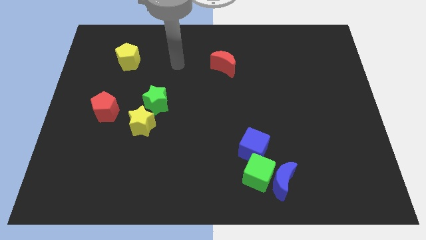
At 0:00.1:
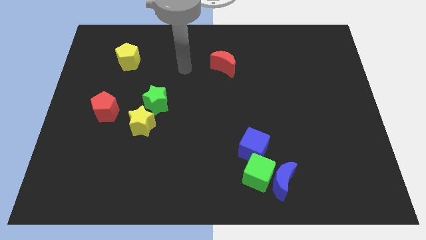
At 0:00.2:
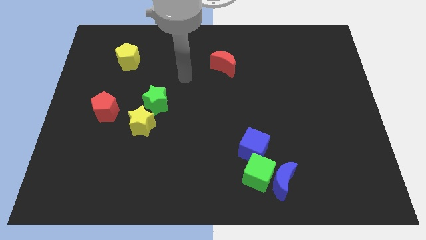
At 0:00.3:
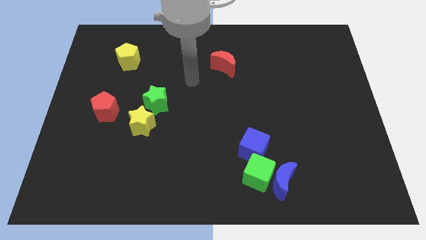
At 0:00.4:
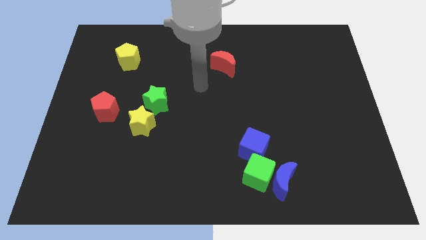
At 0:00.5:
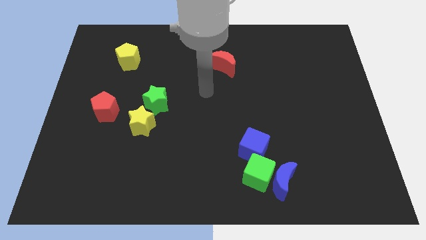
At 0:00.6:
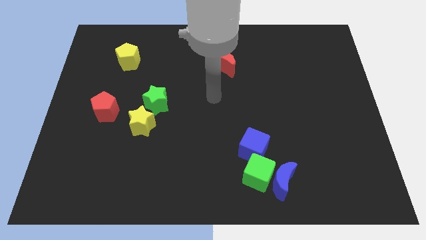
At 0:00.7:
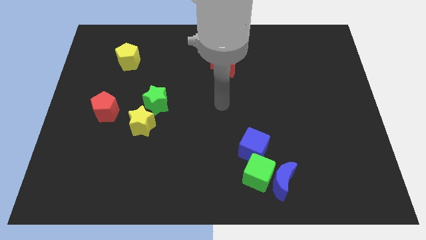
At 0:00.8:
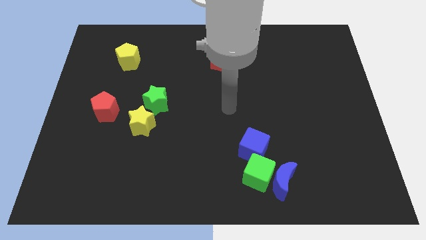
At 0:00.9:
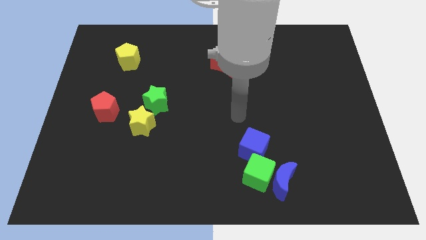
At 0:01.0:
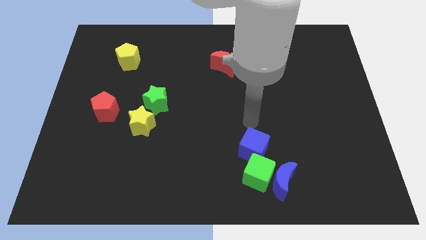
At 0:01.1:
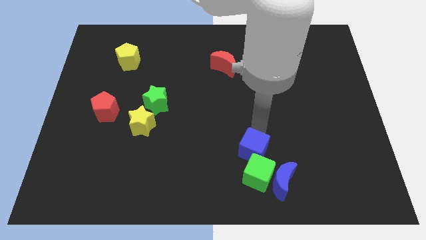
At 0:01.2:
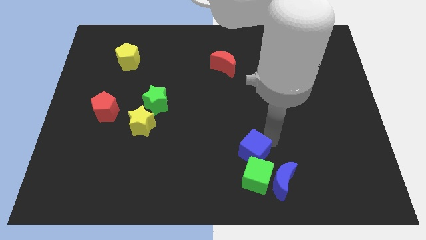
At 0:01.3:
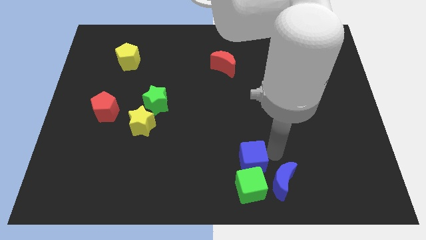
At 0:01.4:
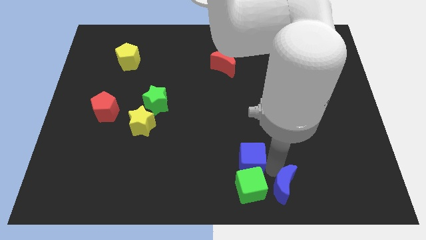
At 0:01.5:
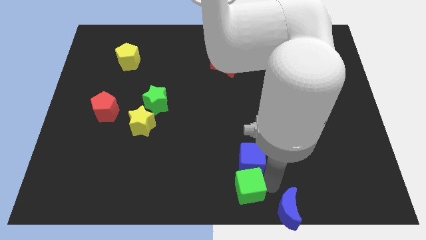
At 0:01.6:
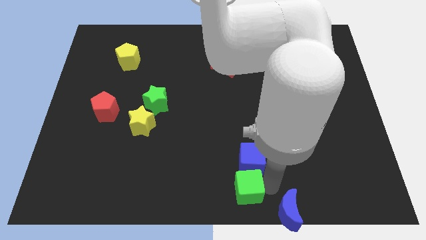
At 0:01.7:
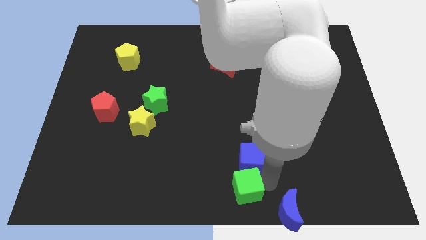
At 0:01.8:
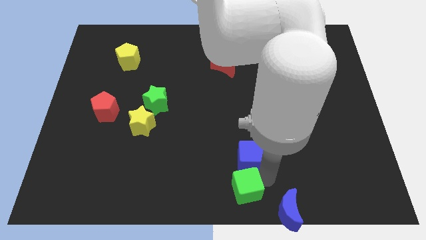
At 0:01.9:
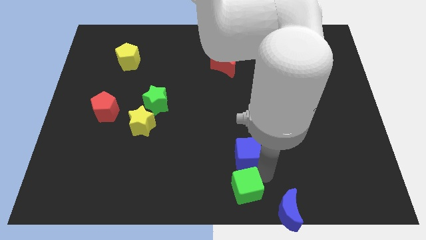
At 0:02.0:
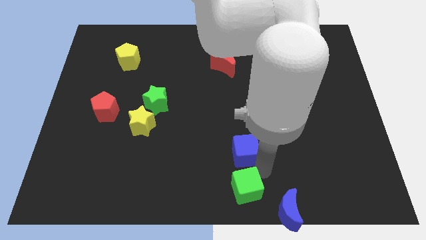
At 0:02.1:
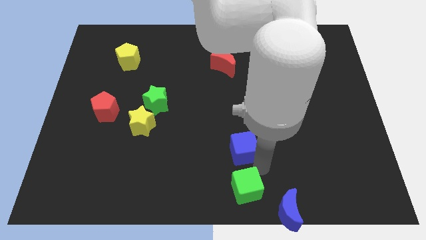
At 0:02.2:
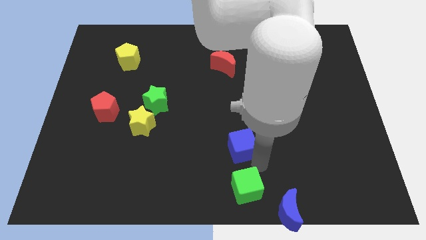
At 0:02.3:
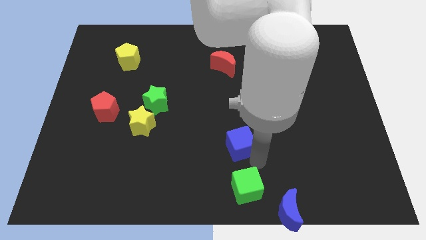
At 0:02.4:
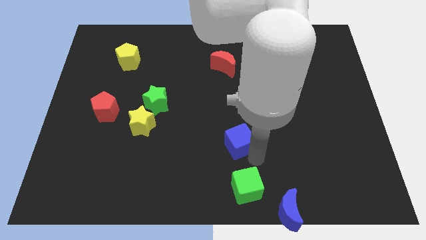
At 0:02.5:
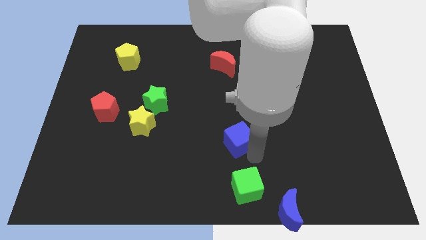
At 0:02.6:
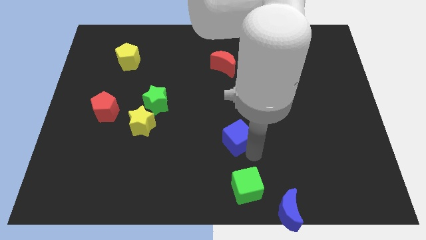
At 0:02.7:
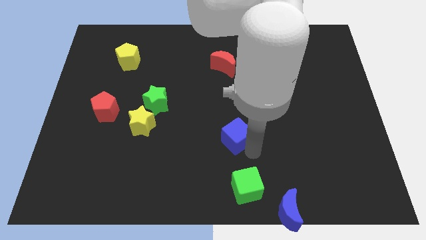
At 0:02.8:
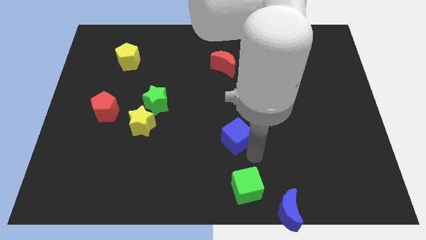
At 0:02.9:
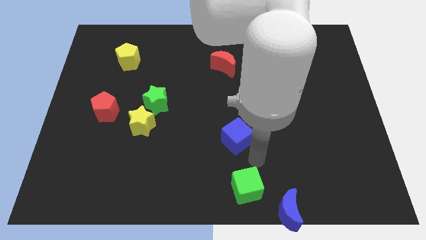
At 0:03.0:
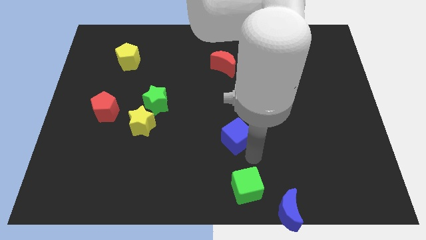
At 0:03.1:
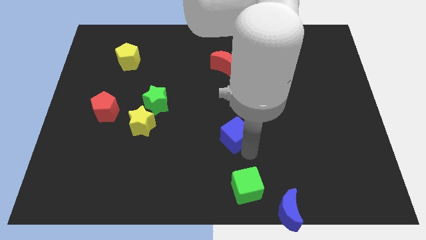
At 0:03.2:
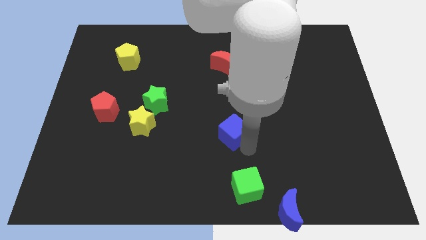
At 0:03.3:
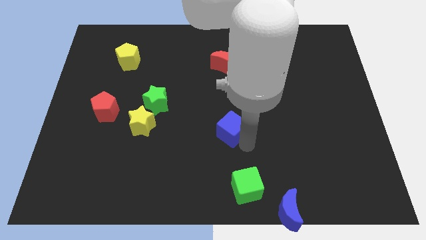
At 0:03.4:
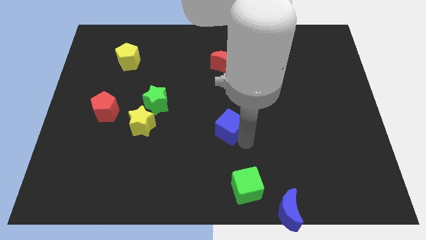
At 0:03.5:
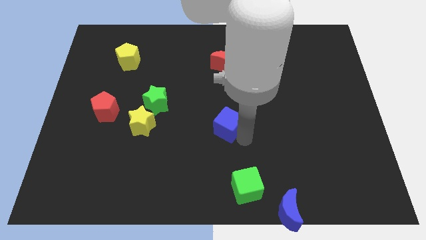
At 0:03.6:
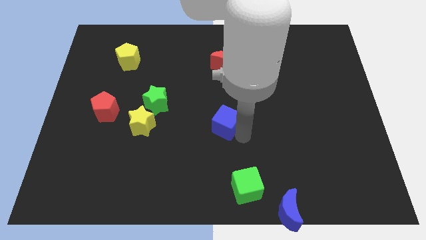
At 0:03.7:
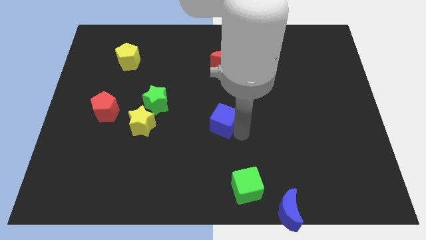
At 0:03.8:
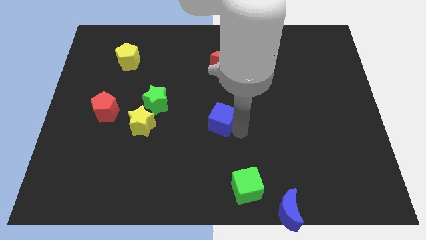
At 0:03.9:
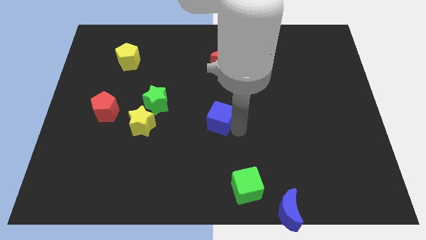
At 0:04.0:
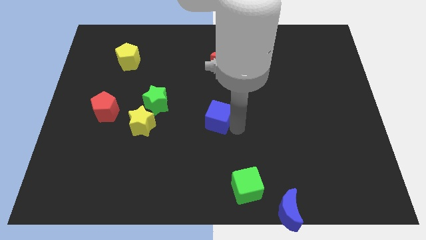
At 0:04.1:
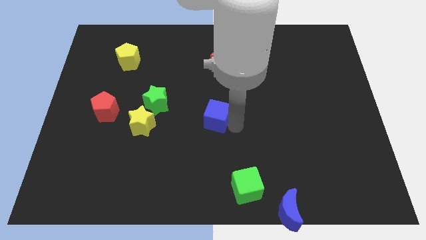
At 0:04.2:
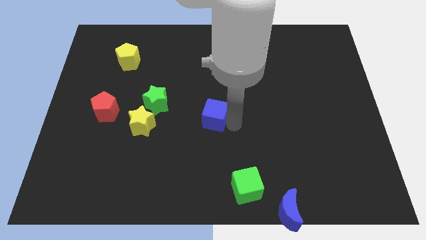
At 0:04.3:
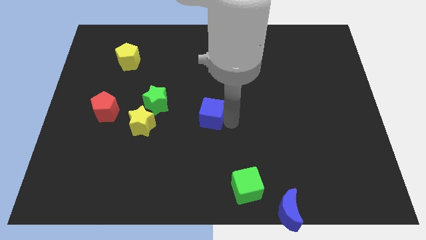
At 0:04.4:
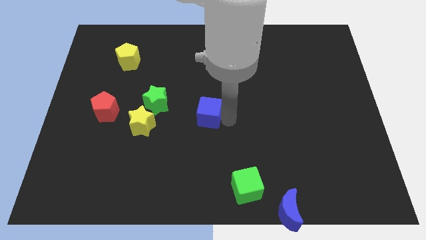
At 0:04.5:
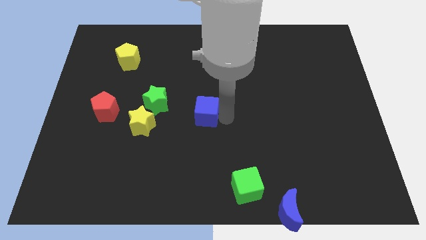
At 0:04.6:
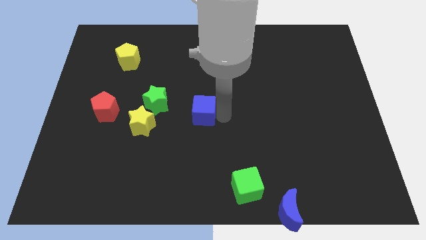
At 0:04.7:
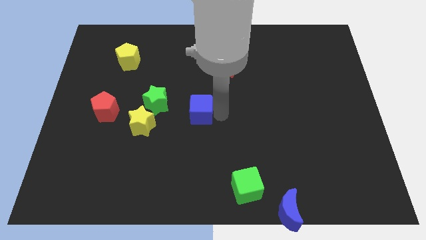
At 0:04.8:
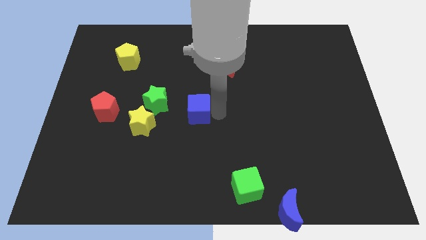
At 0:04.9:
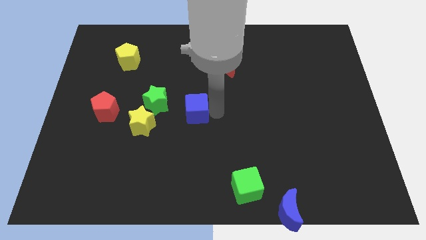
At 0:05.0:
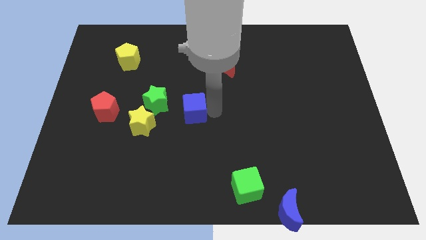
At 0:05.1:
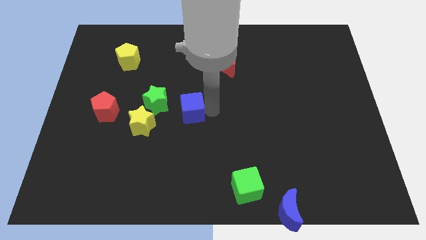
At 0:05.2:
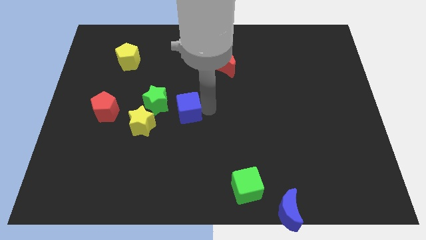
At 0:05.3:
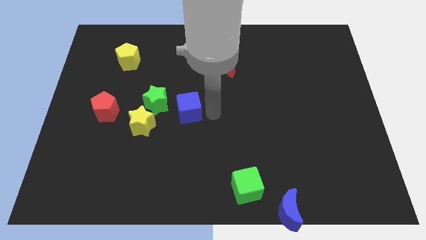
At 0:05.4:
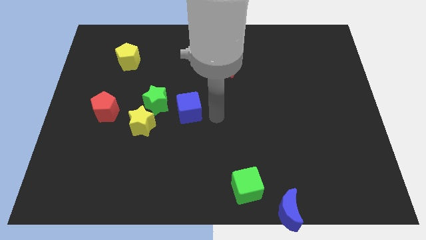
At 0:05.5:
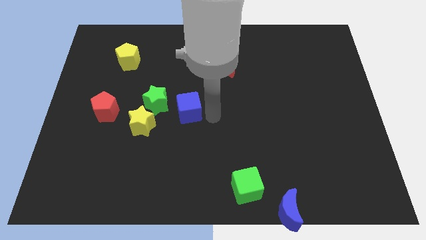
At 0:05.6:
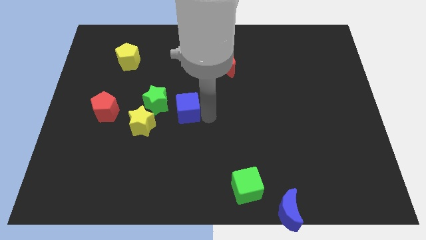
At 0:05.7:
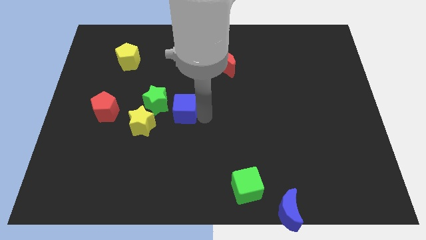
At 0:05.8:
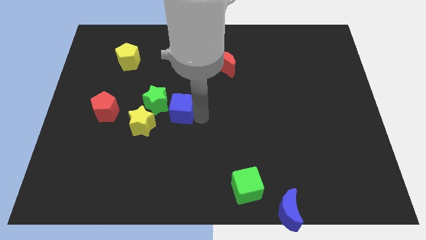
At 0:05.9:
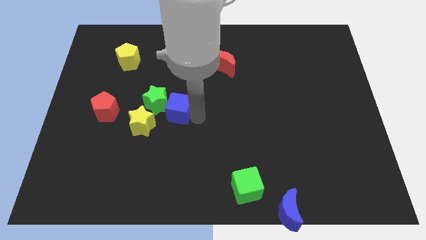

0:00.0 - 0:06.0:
put the blue cube to the green star

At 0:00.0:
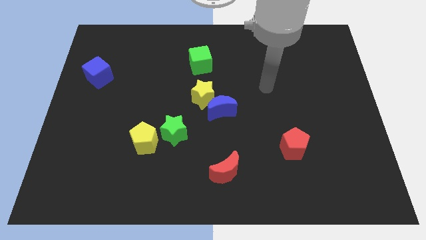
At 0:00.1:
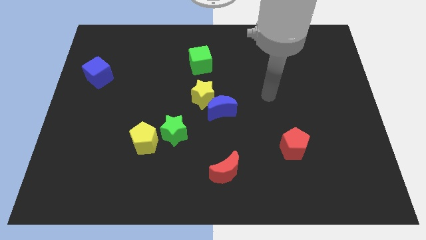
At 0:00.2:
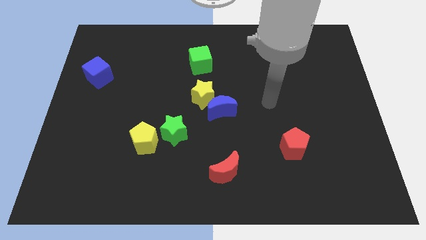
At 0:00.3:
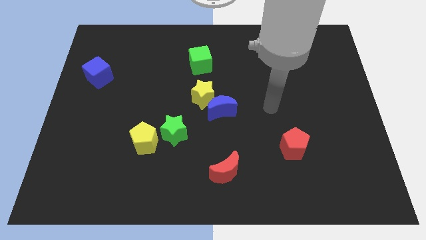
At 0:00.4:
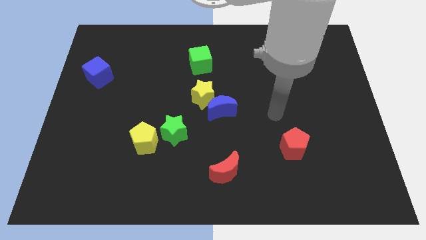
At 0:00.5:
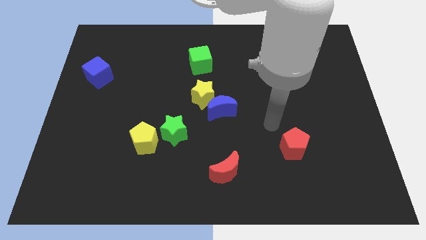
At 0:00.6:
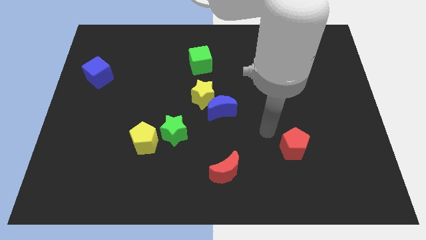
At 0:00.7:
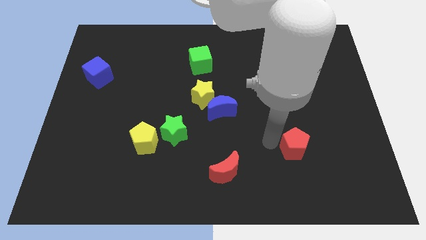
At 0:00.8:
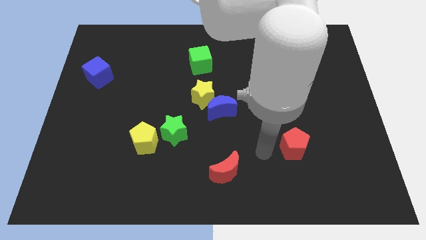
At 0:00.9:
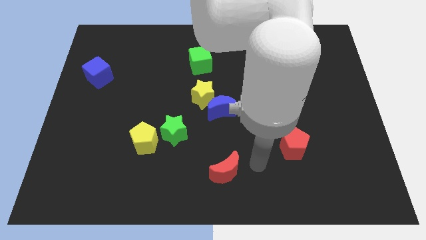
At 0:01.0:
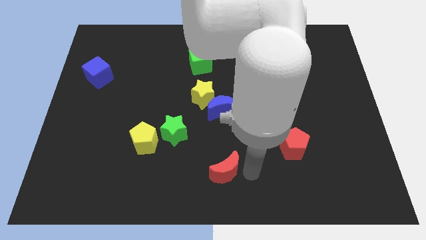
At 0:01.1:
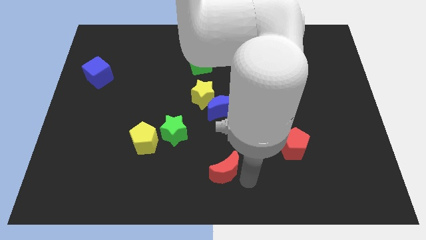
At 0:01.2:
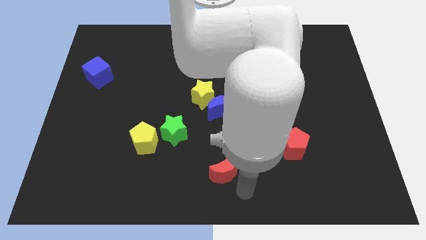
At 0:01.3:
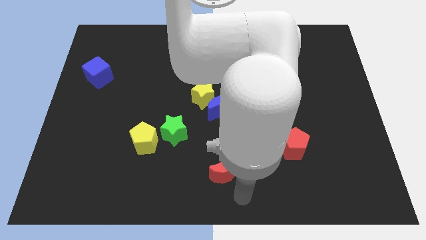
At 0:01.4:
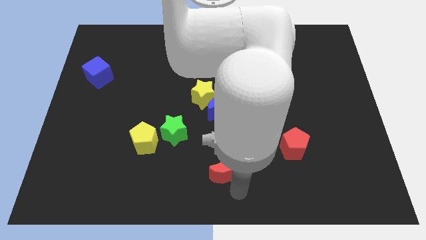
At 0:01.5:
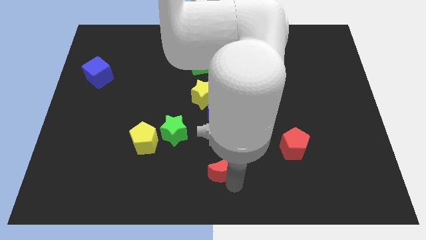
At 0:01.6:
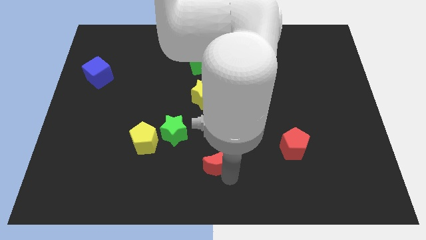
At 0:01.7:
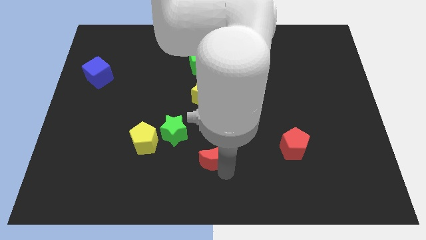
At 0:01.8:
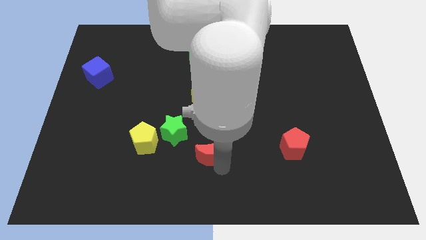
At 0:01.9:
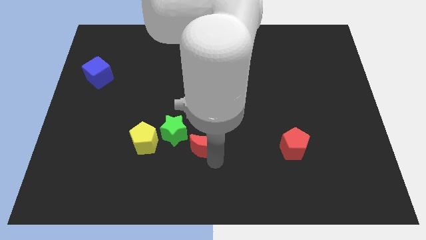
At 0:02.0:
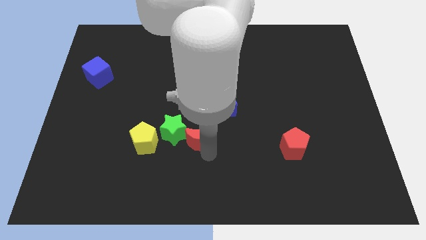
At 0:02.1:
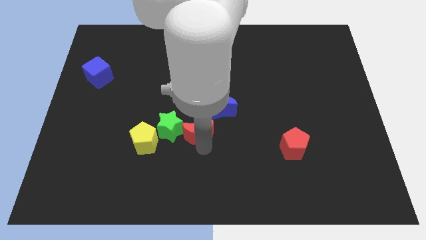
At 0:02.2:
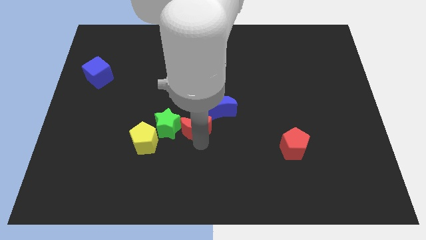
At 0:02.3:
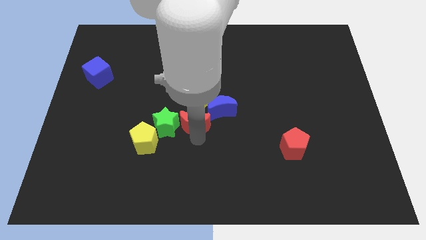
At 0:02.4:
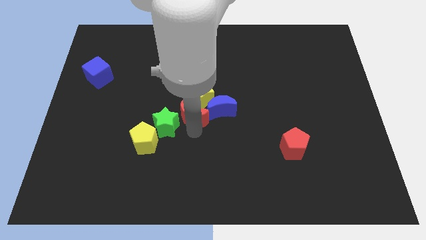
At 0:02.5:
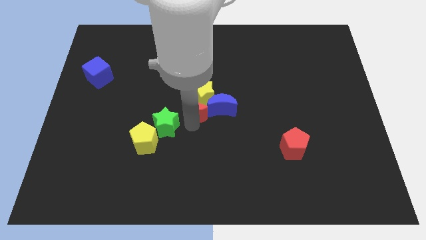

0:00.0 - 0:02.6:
move the red moon close to the yellow star
